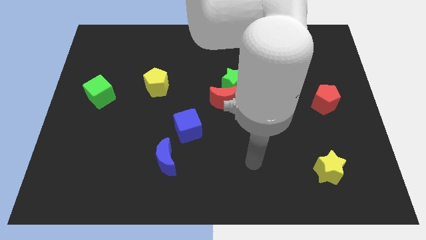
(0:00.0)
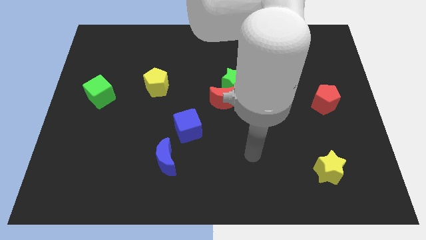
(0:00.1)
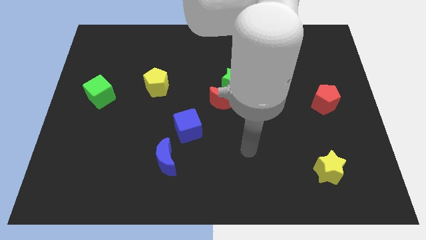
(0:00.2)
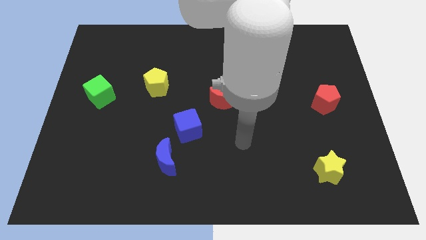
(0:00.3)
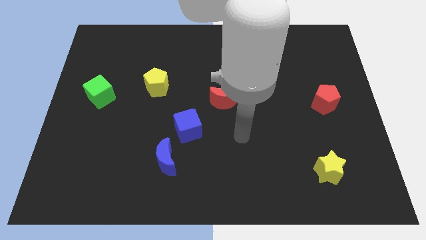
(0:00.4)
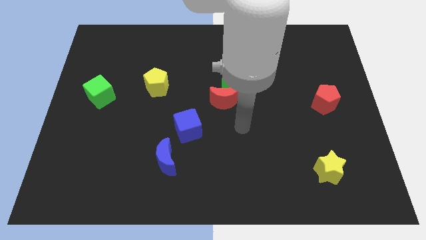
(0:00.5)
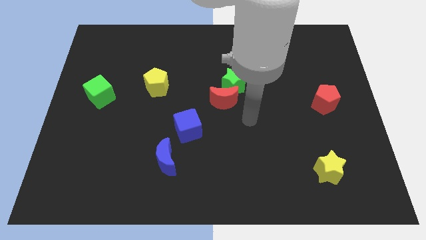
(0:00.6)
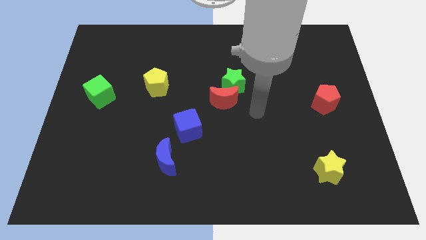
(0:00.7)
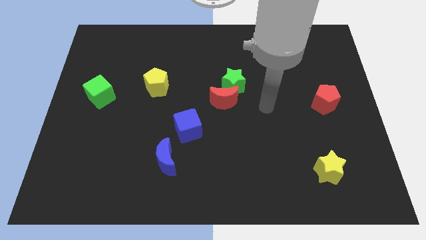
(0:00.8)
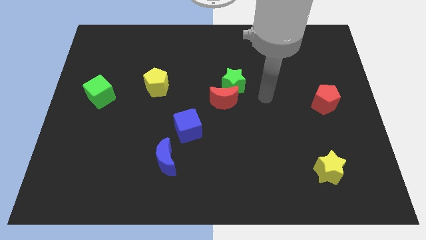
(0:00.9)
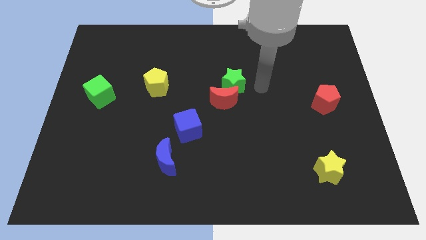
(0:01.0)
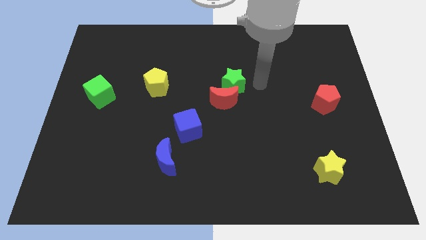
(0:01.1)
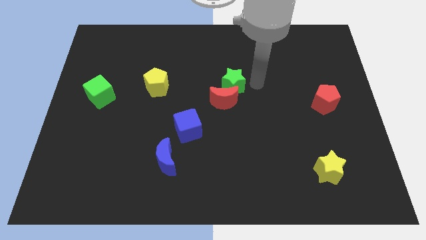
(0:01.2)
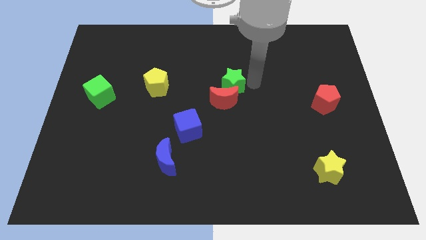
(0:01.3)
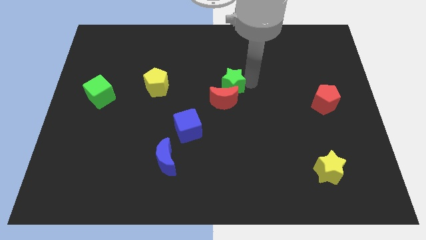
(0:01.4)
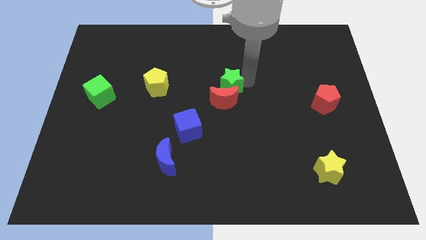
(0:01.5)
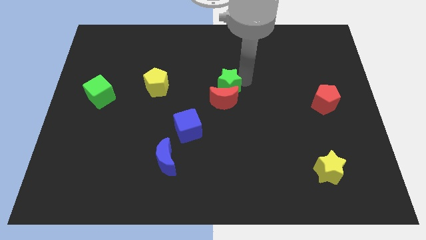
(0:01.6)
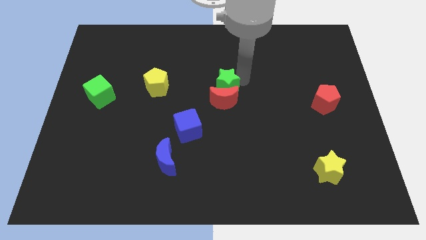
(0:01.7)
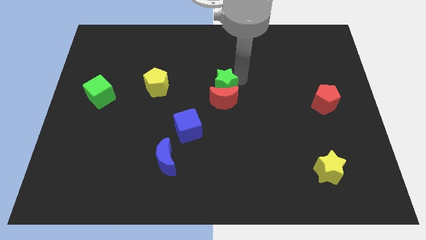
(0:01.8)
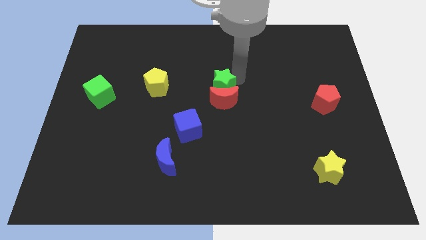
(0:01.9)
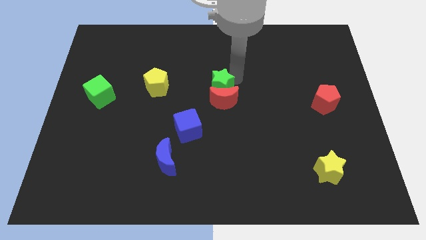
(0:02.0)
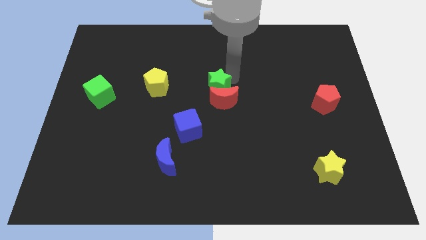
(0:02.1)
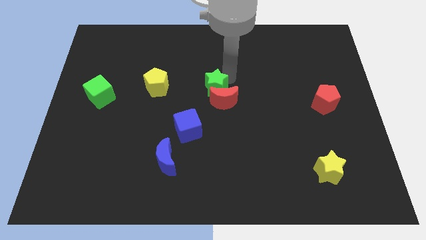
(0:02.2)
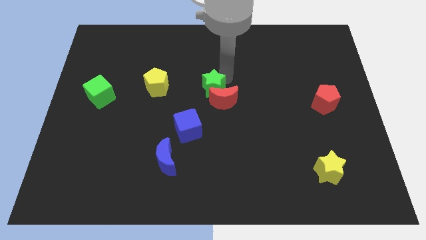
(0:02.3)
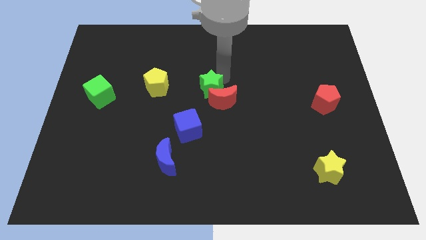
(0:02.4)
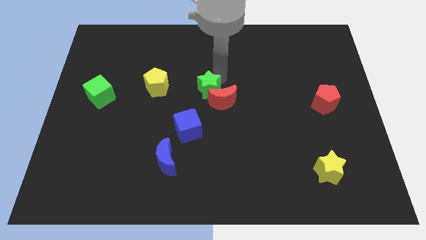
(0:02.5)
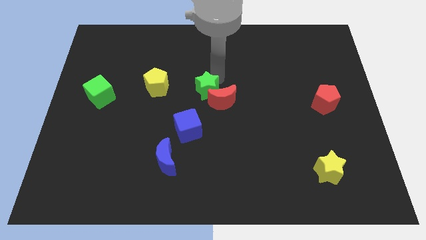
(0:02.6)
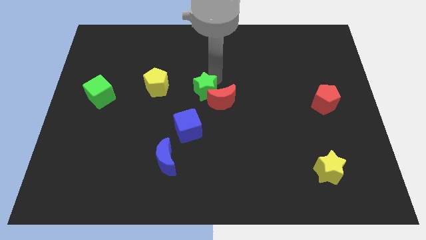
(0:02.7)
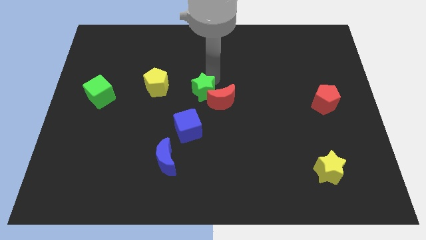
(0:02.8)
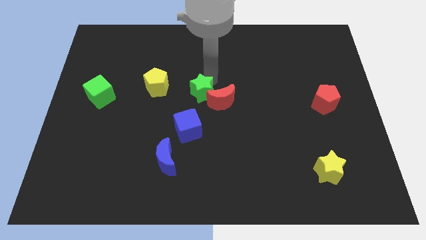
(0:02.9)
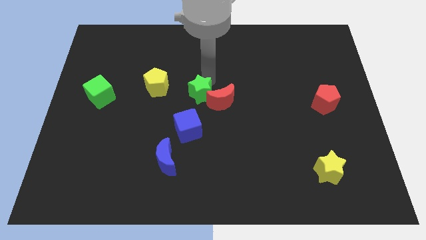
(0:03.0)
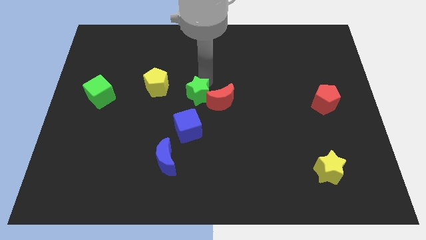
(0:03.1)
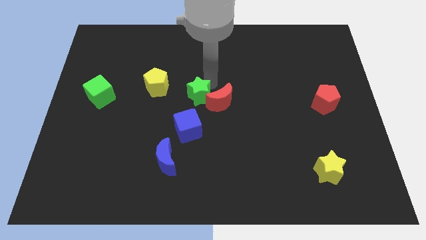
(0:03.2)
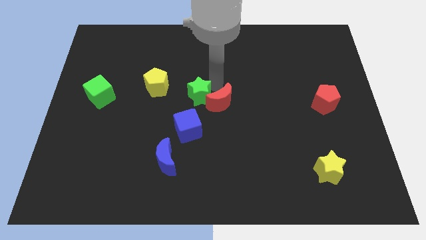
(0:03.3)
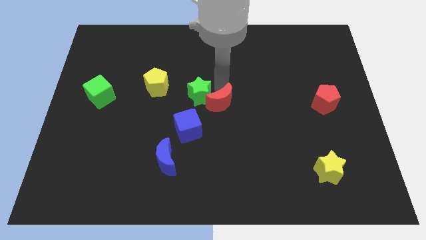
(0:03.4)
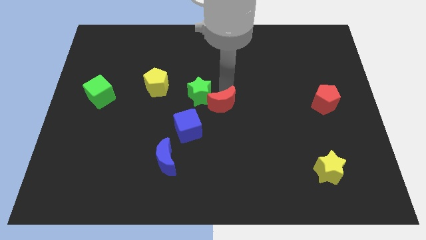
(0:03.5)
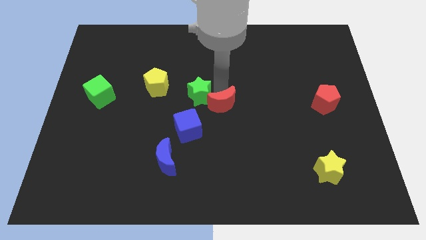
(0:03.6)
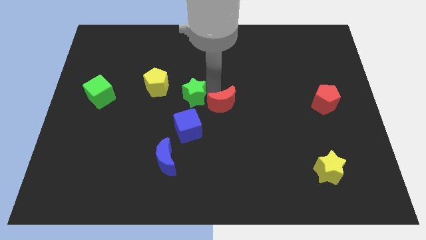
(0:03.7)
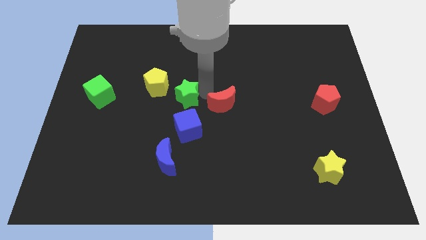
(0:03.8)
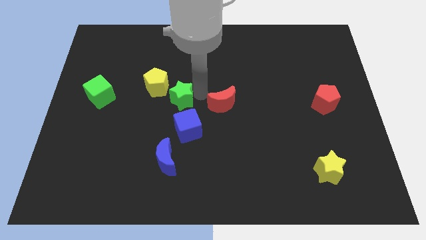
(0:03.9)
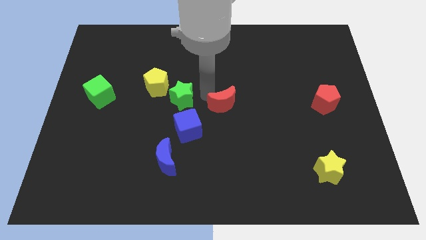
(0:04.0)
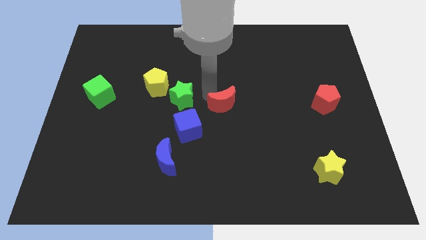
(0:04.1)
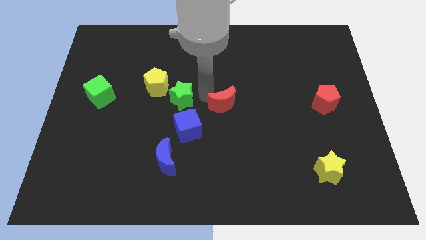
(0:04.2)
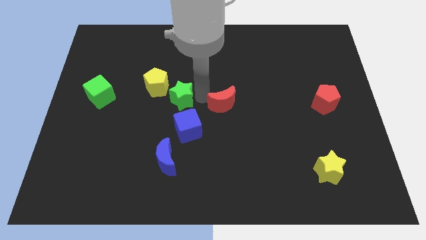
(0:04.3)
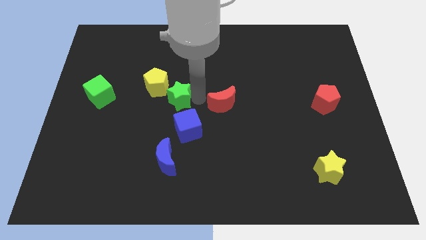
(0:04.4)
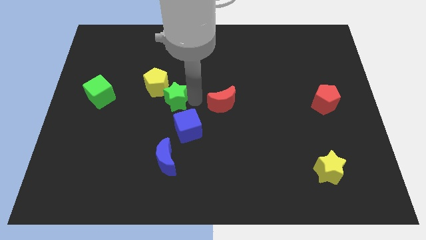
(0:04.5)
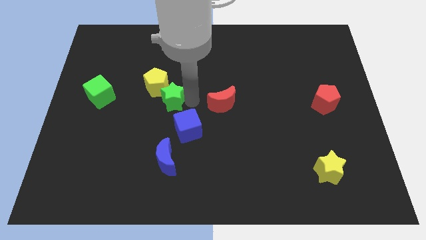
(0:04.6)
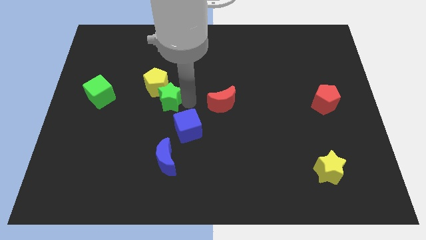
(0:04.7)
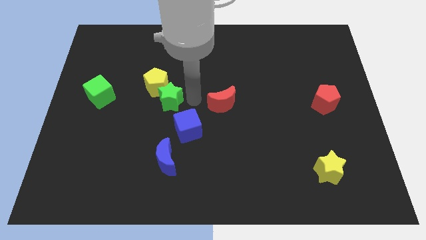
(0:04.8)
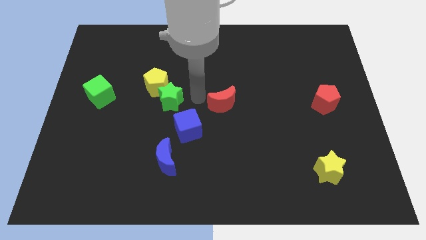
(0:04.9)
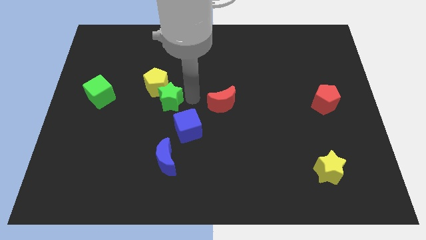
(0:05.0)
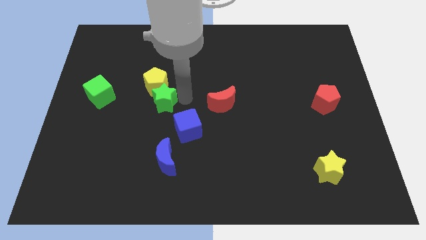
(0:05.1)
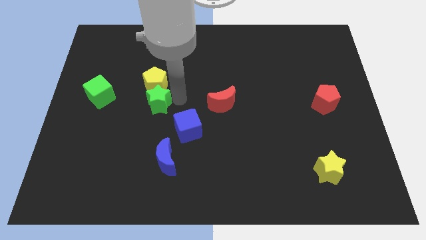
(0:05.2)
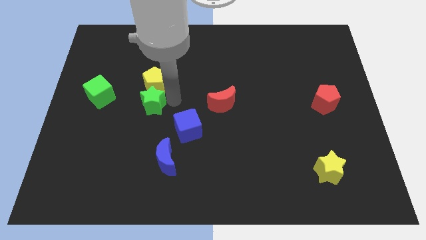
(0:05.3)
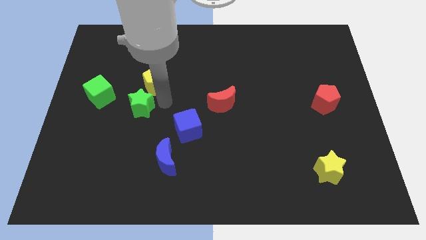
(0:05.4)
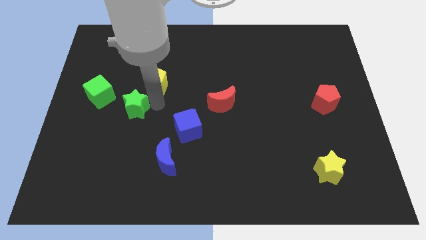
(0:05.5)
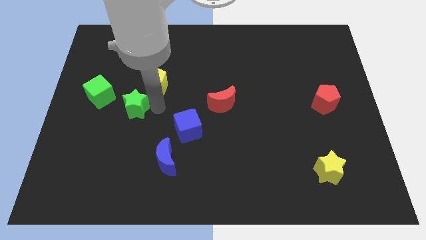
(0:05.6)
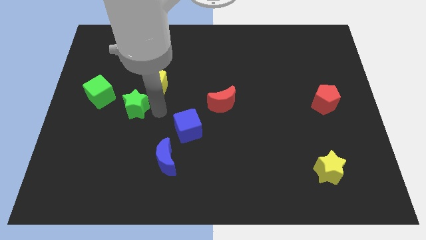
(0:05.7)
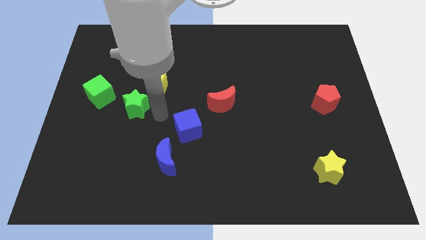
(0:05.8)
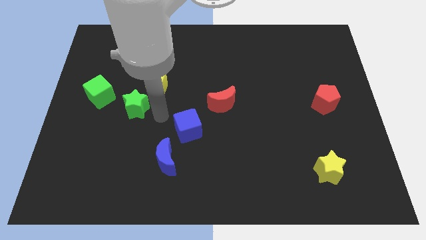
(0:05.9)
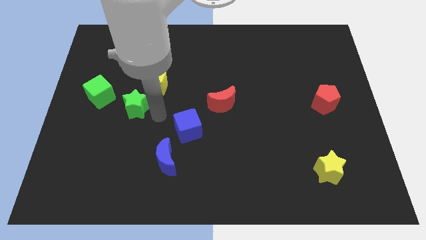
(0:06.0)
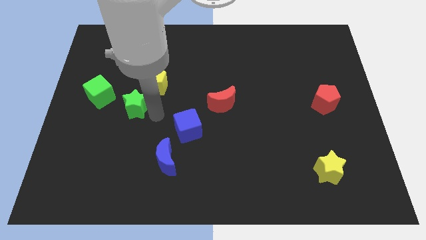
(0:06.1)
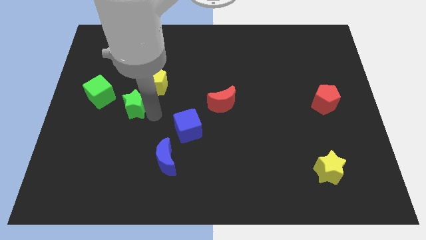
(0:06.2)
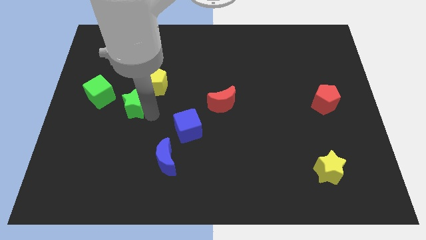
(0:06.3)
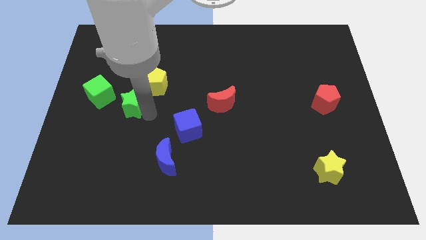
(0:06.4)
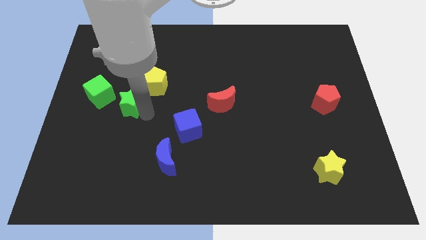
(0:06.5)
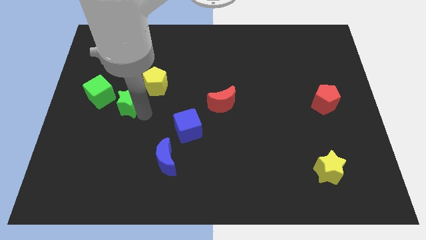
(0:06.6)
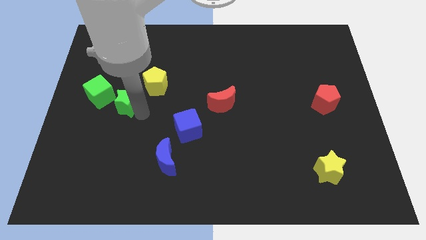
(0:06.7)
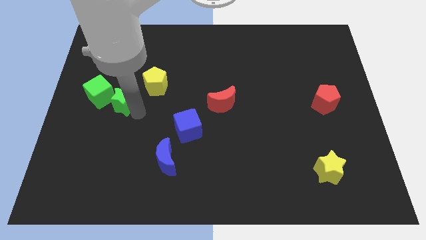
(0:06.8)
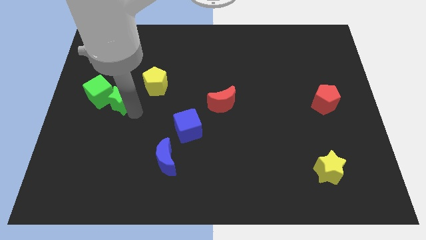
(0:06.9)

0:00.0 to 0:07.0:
slide the green star towards the green cube

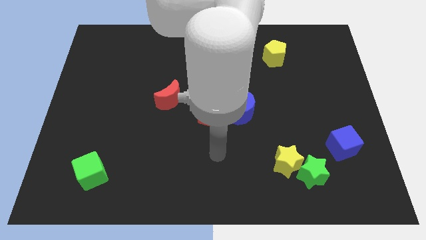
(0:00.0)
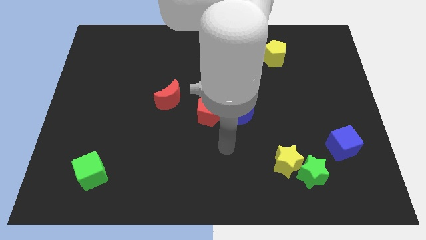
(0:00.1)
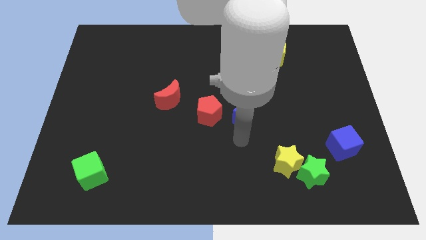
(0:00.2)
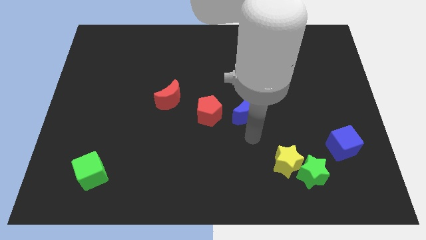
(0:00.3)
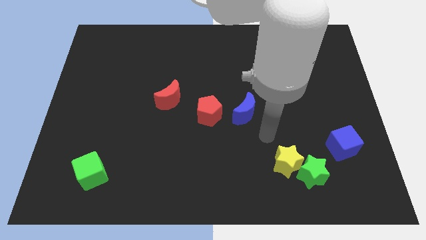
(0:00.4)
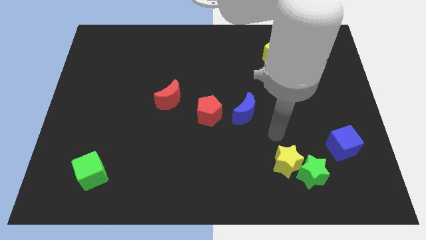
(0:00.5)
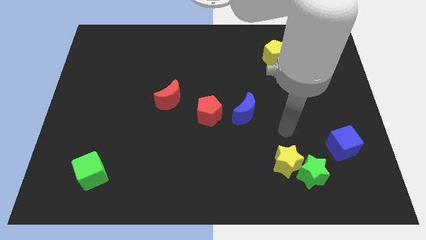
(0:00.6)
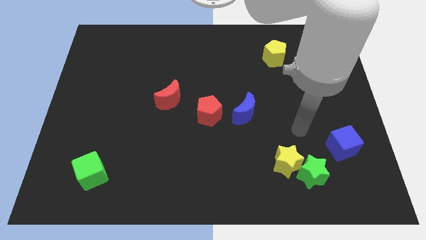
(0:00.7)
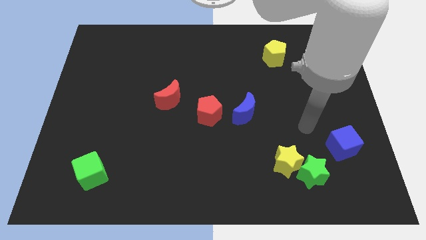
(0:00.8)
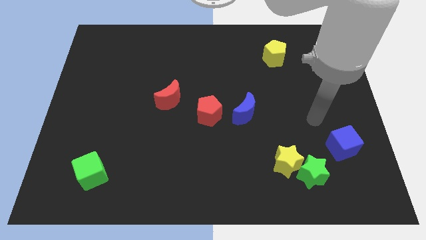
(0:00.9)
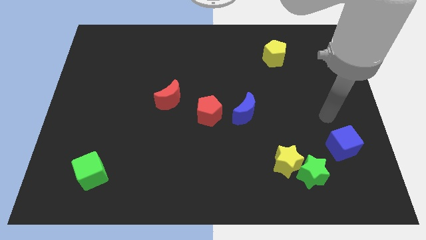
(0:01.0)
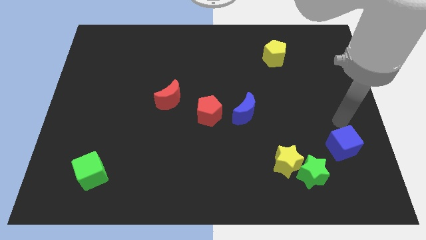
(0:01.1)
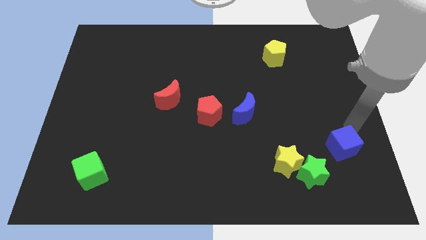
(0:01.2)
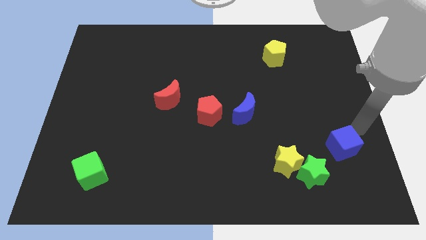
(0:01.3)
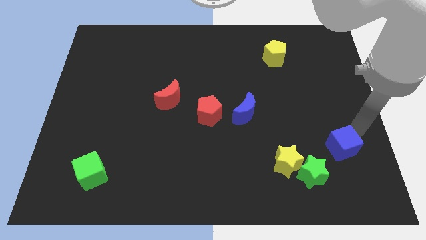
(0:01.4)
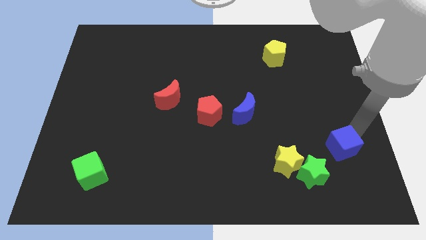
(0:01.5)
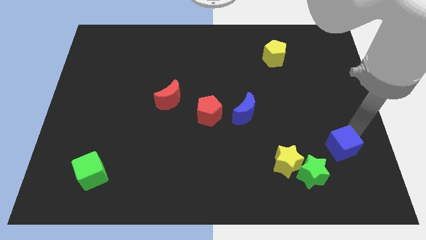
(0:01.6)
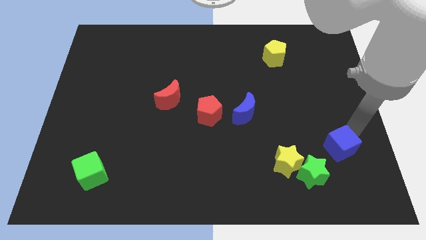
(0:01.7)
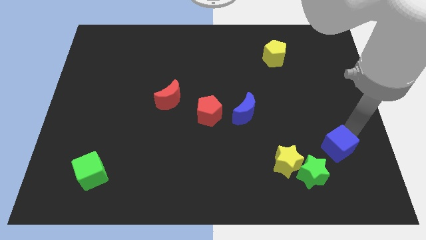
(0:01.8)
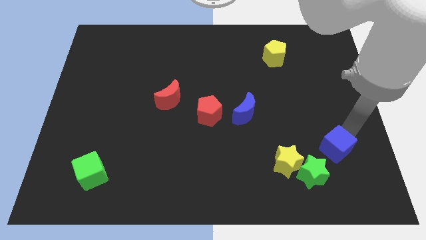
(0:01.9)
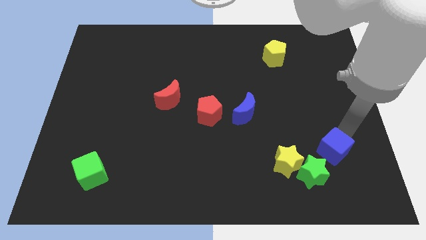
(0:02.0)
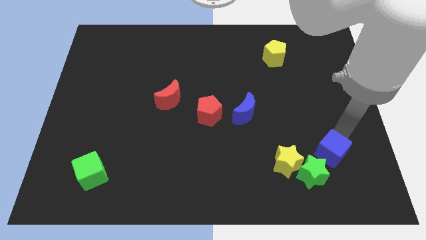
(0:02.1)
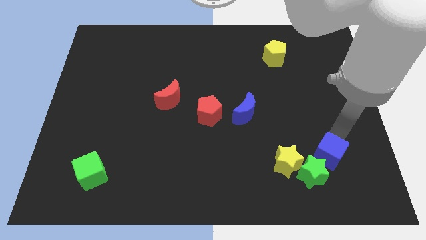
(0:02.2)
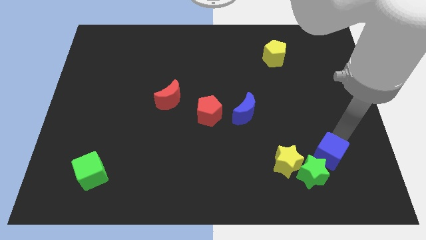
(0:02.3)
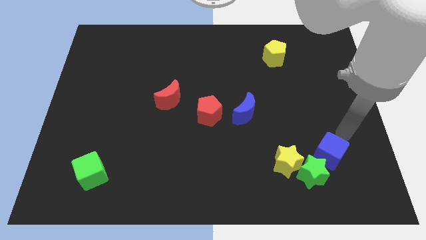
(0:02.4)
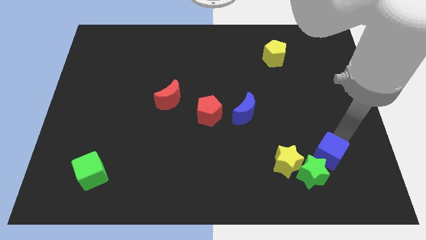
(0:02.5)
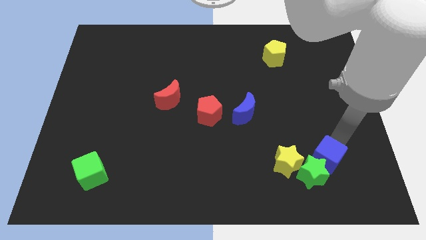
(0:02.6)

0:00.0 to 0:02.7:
put the blue cube next to the green star
